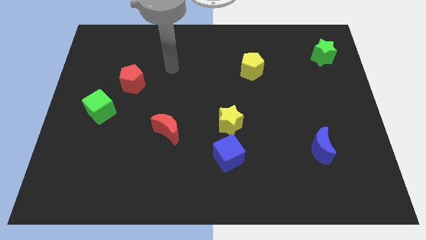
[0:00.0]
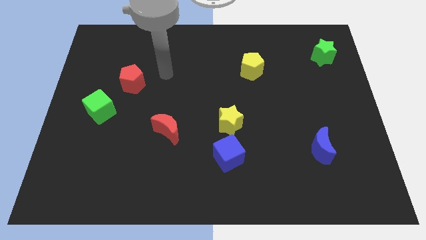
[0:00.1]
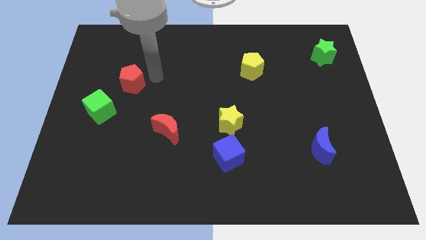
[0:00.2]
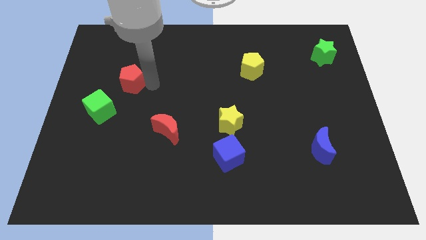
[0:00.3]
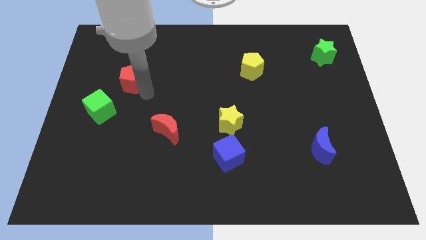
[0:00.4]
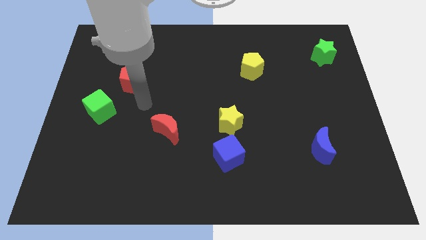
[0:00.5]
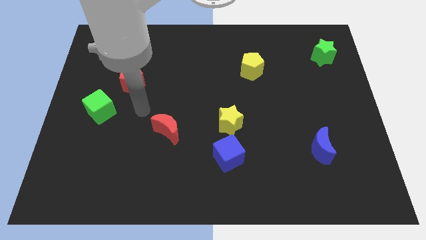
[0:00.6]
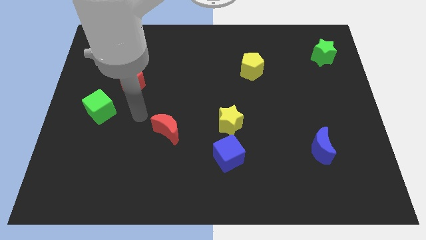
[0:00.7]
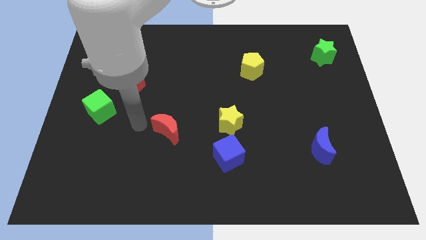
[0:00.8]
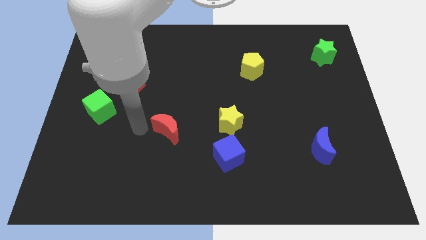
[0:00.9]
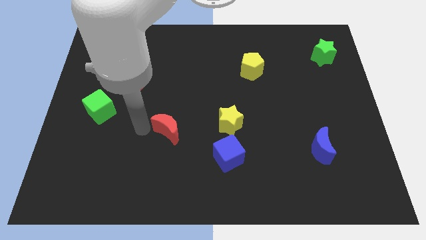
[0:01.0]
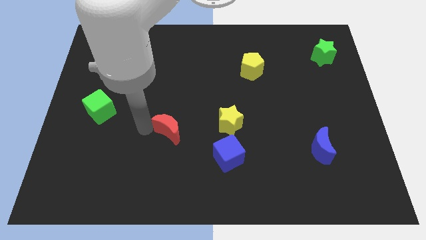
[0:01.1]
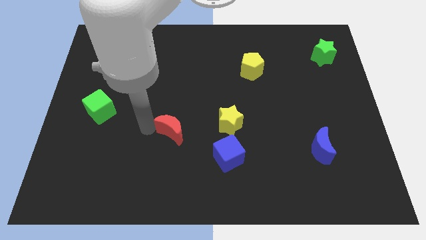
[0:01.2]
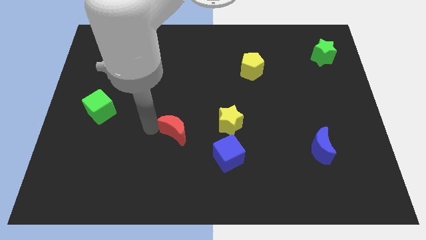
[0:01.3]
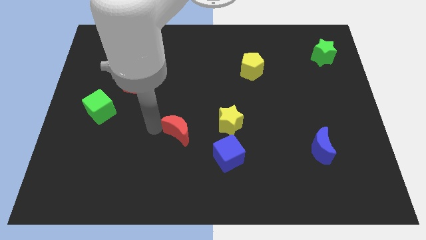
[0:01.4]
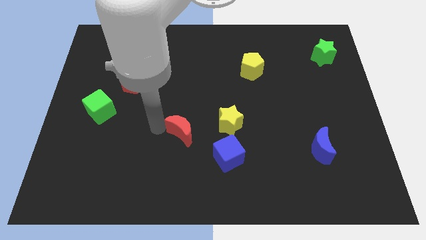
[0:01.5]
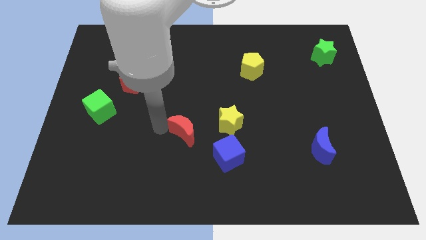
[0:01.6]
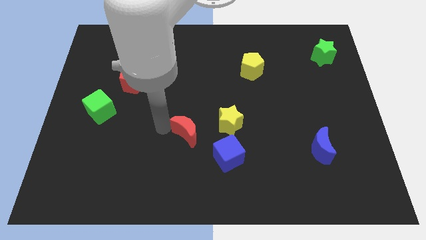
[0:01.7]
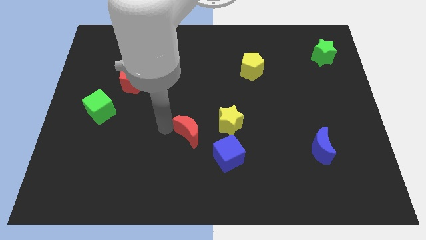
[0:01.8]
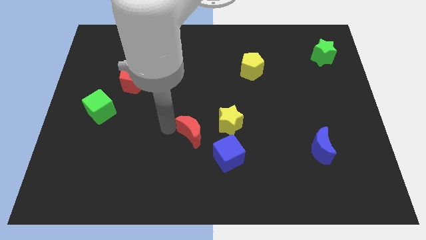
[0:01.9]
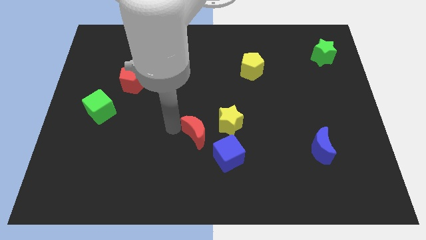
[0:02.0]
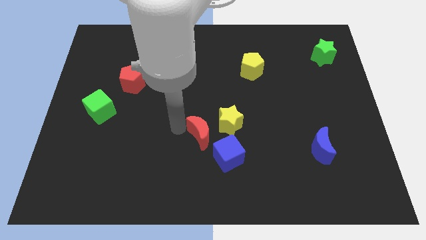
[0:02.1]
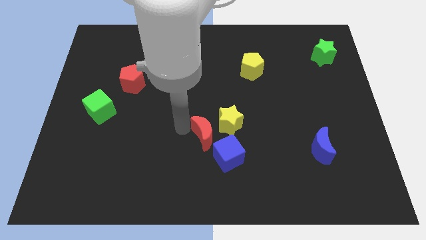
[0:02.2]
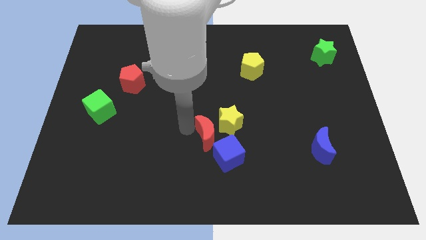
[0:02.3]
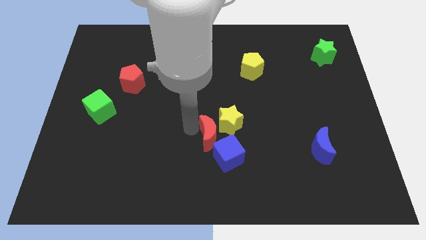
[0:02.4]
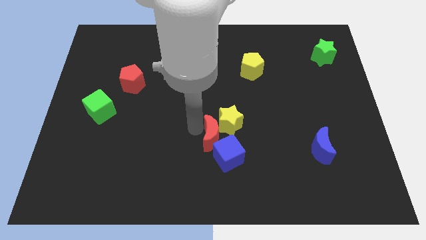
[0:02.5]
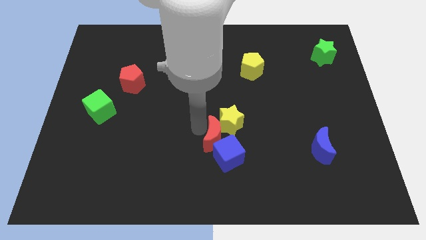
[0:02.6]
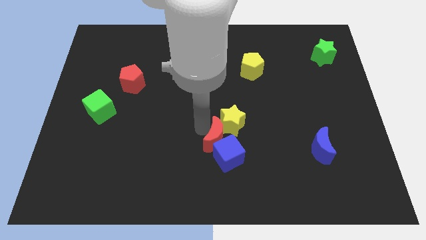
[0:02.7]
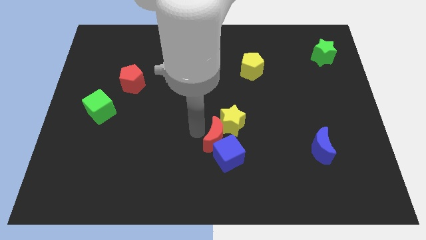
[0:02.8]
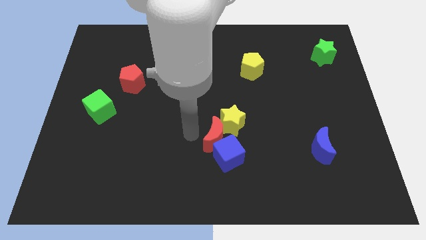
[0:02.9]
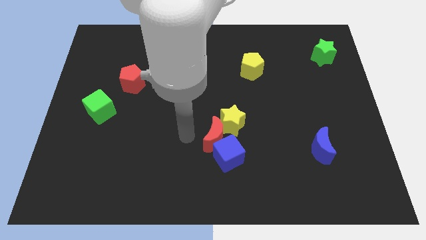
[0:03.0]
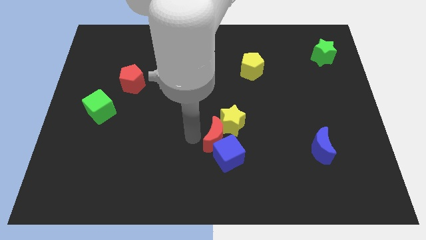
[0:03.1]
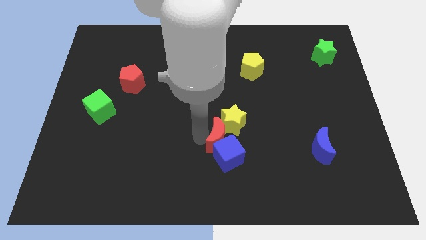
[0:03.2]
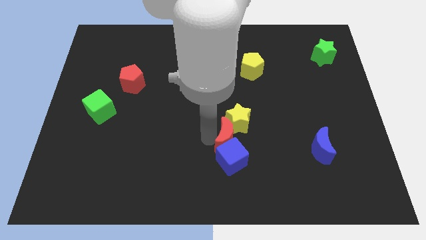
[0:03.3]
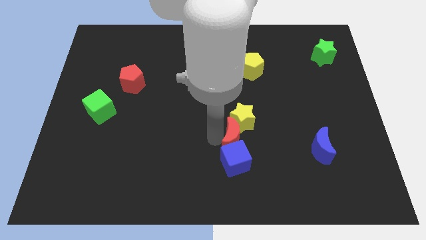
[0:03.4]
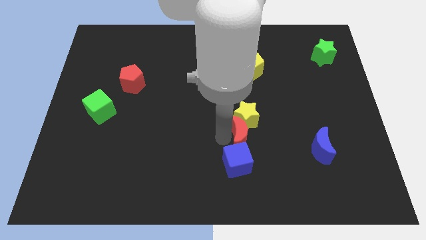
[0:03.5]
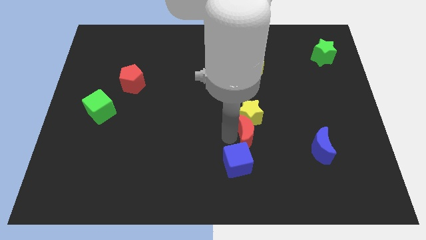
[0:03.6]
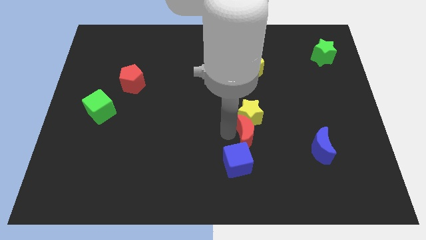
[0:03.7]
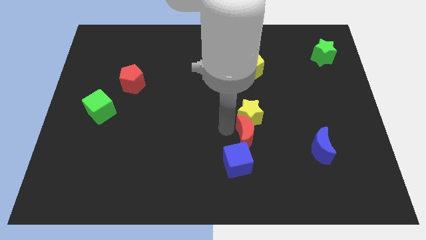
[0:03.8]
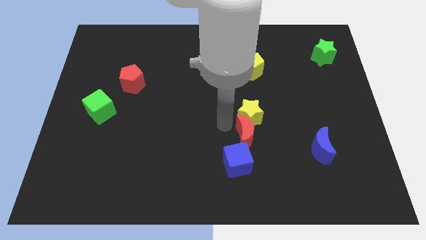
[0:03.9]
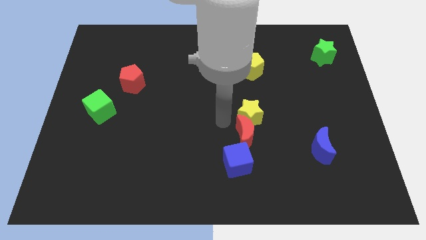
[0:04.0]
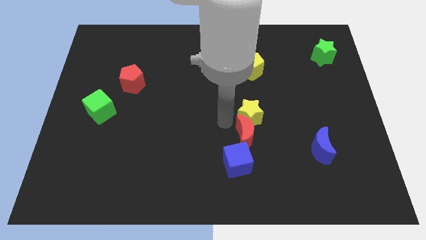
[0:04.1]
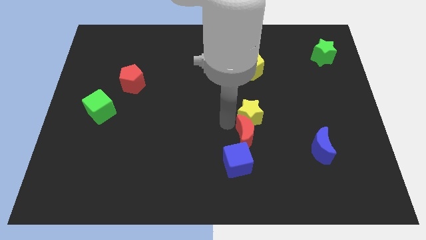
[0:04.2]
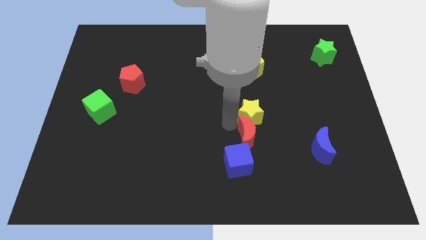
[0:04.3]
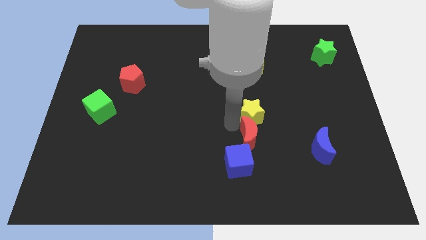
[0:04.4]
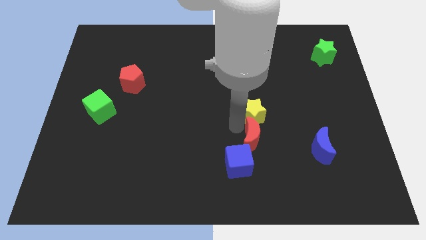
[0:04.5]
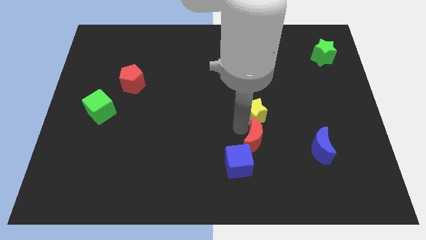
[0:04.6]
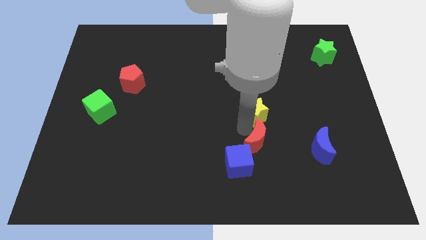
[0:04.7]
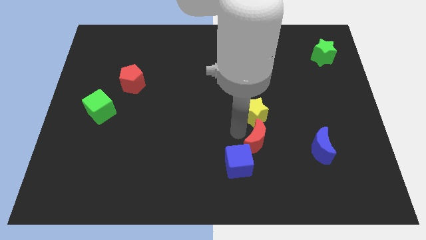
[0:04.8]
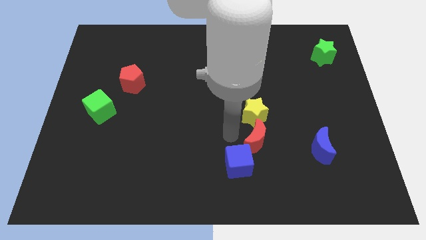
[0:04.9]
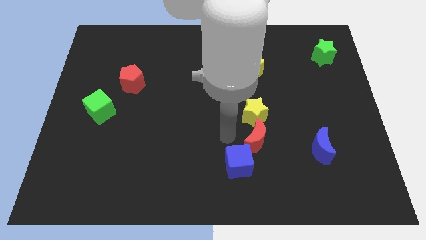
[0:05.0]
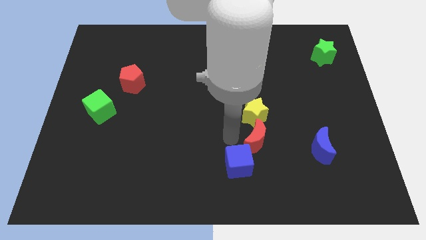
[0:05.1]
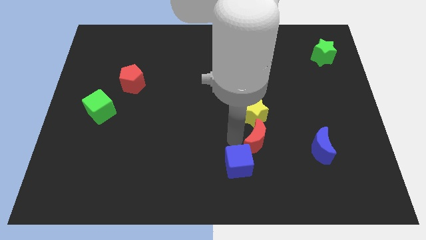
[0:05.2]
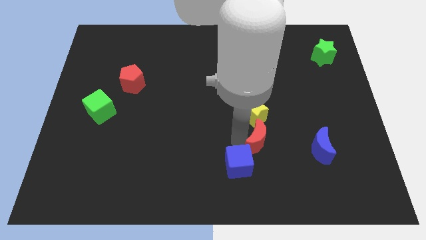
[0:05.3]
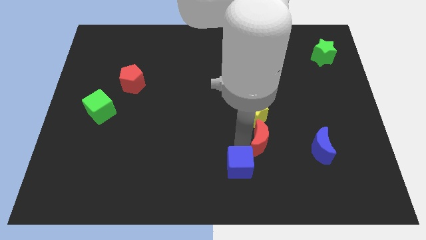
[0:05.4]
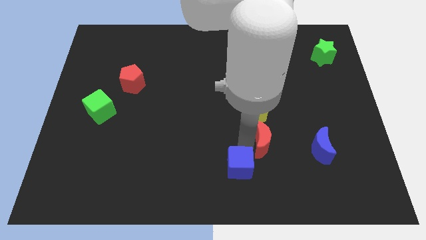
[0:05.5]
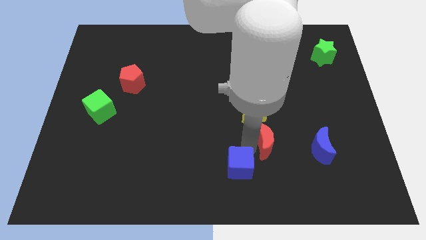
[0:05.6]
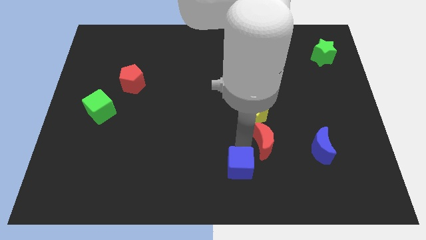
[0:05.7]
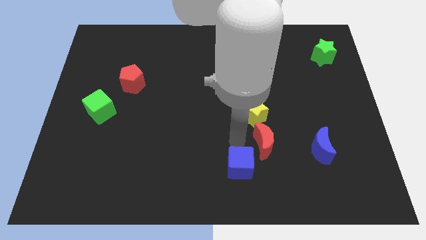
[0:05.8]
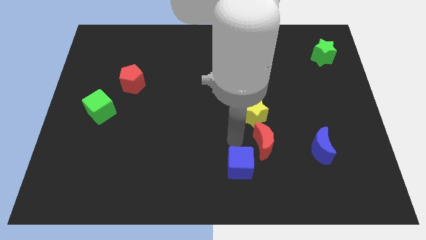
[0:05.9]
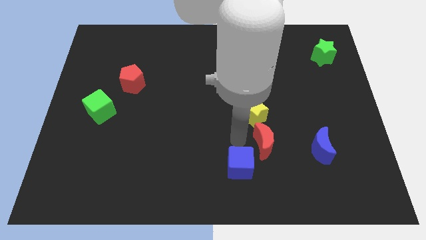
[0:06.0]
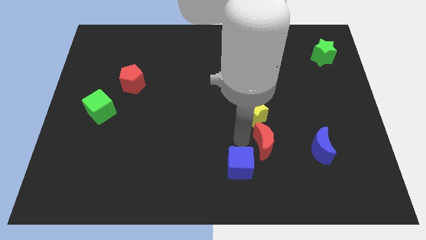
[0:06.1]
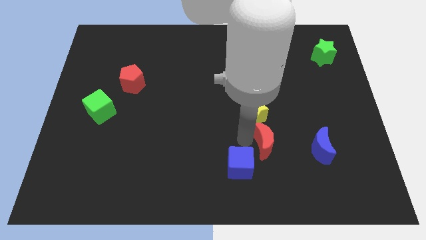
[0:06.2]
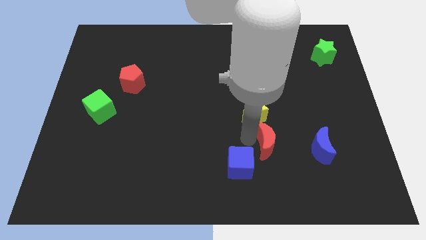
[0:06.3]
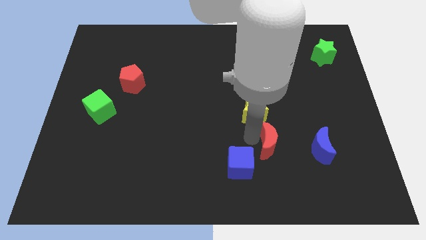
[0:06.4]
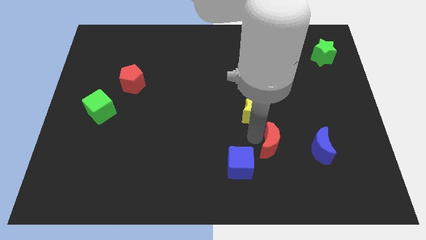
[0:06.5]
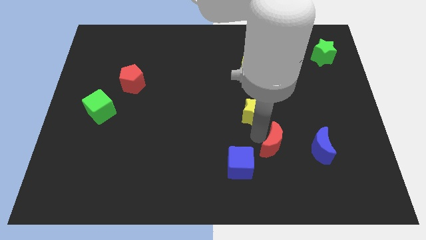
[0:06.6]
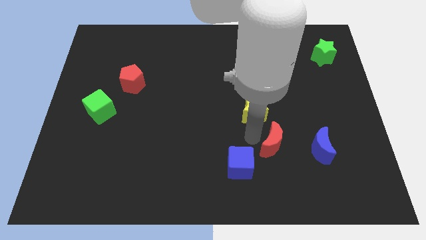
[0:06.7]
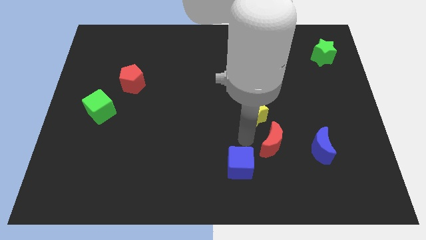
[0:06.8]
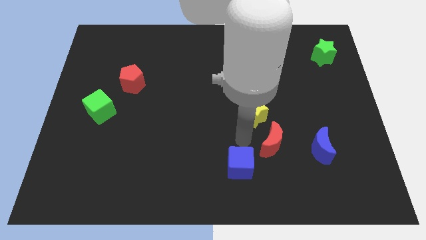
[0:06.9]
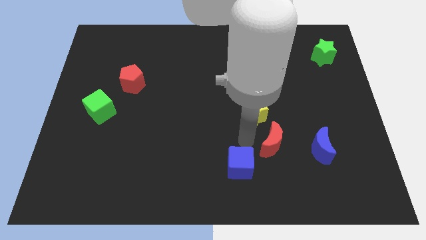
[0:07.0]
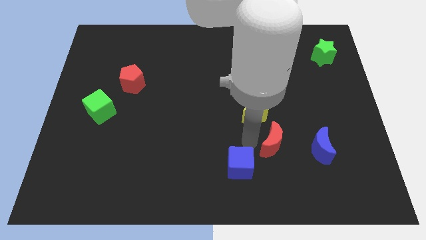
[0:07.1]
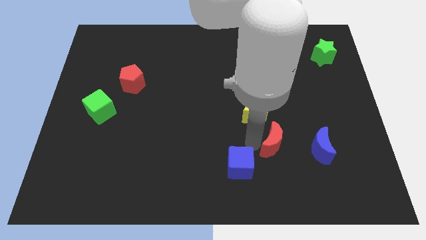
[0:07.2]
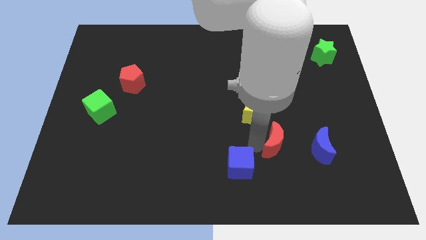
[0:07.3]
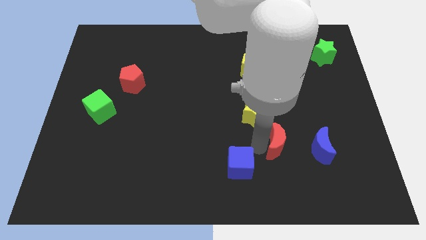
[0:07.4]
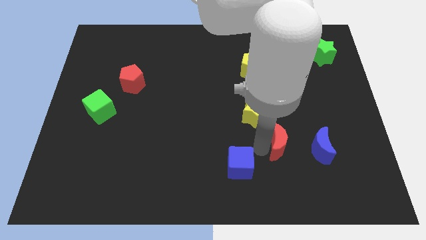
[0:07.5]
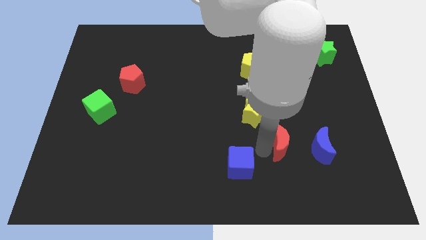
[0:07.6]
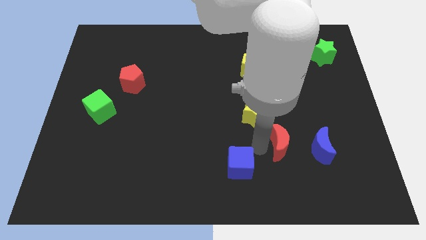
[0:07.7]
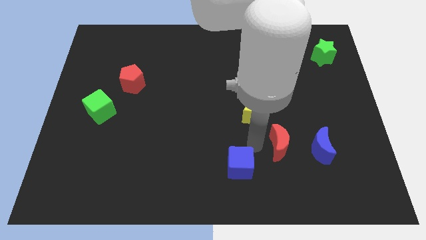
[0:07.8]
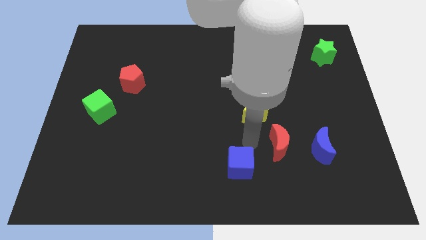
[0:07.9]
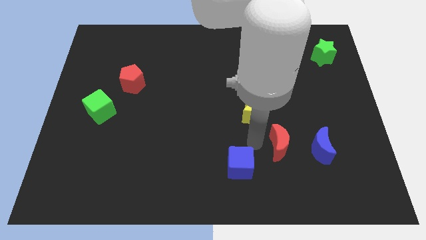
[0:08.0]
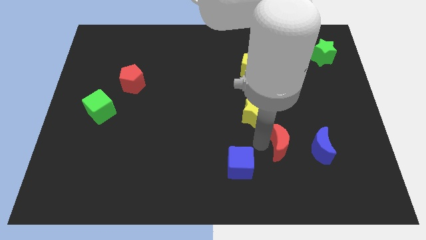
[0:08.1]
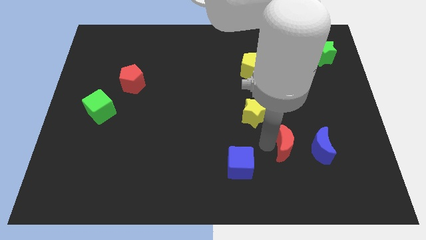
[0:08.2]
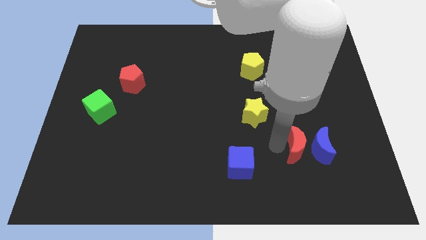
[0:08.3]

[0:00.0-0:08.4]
put the red moon next to the blue moon
